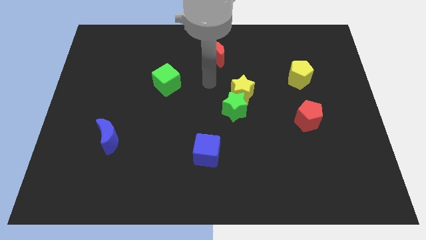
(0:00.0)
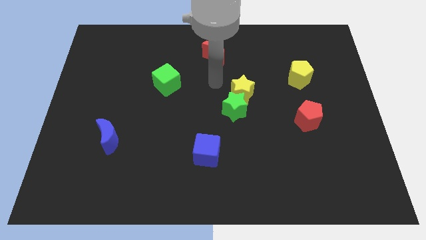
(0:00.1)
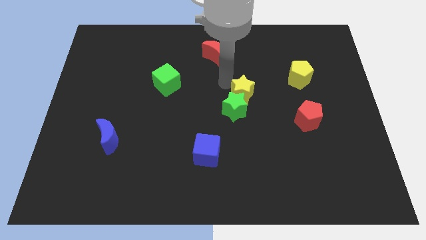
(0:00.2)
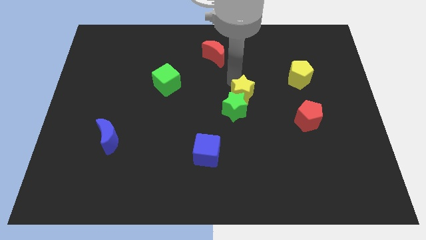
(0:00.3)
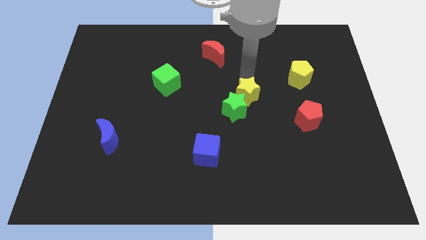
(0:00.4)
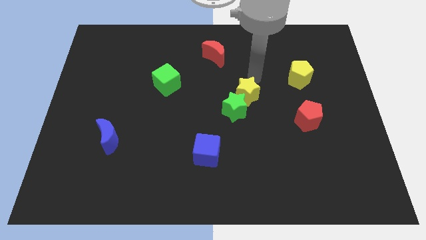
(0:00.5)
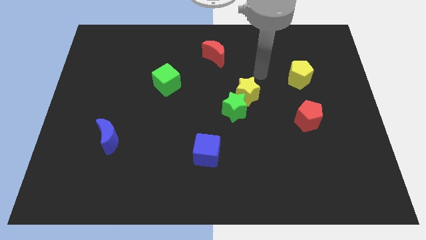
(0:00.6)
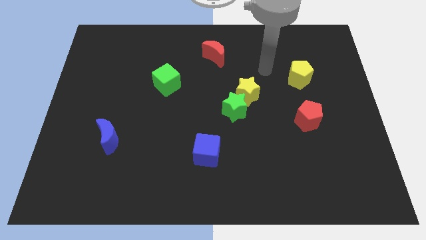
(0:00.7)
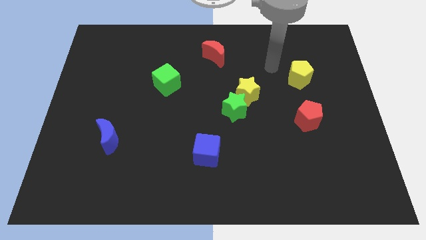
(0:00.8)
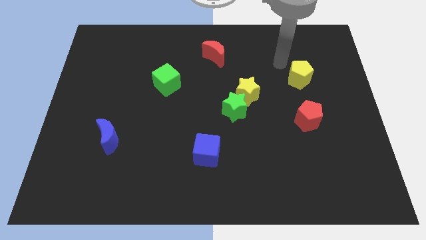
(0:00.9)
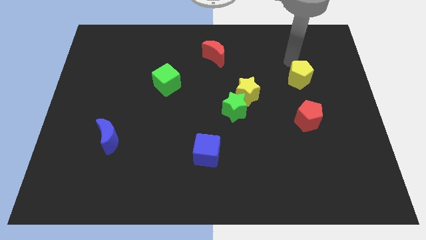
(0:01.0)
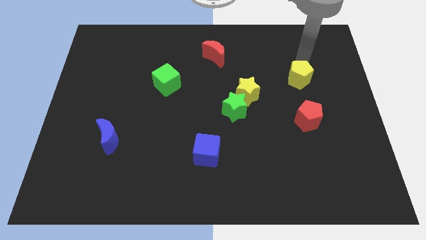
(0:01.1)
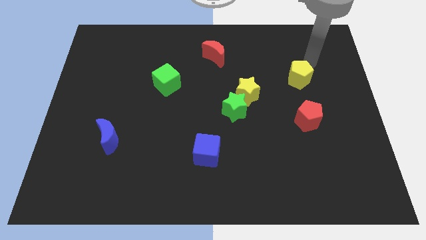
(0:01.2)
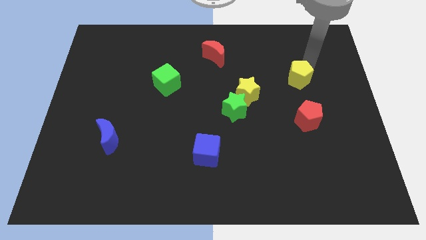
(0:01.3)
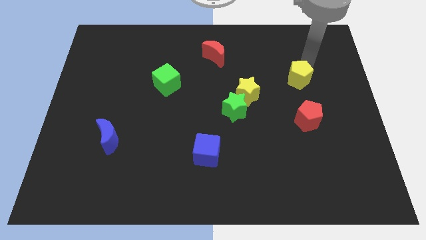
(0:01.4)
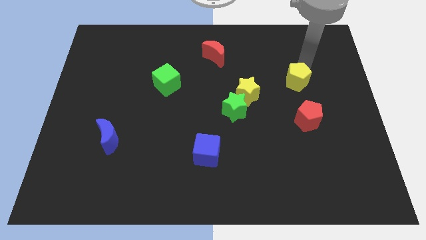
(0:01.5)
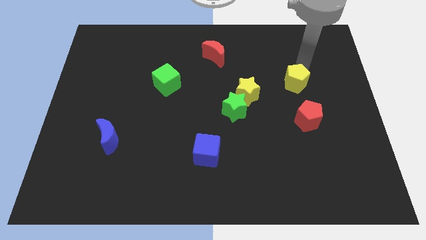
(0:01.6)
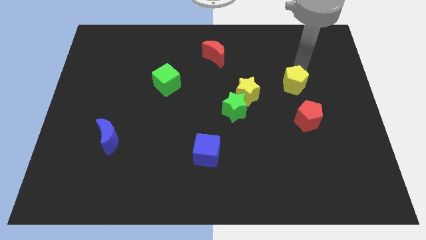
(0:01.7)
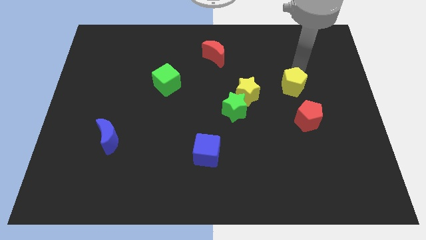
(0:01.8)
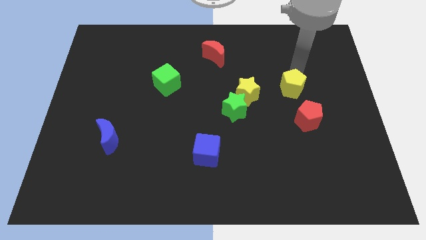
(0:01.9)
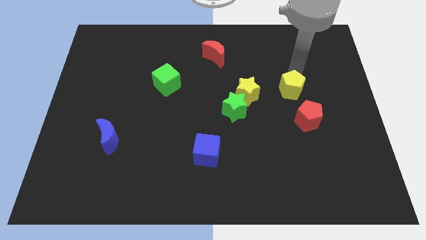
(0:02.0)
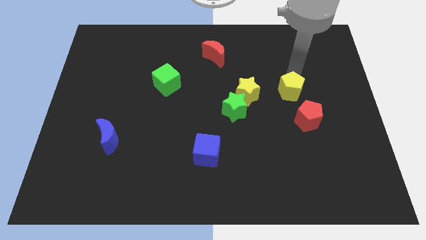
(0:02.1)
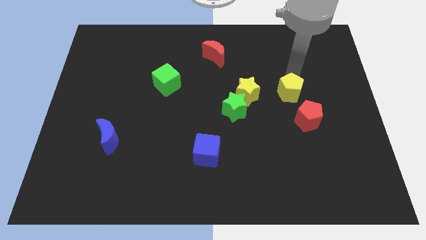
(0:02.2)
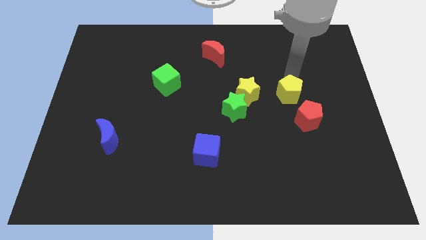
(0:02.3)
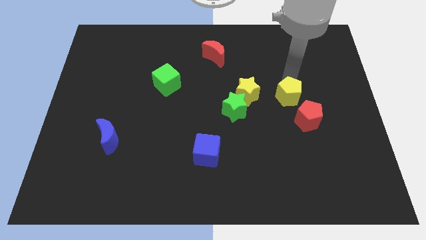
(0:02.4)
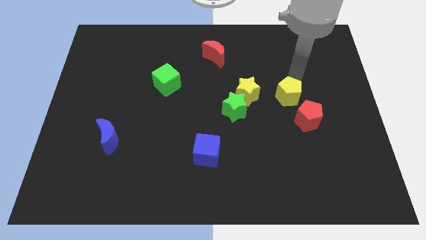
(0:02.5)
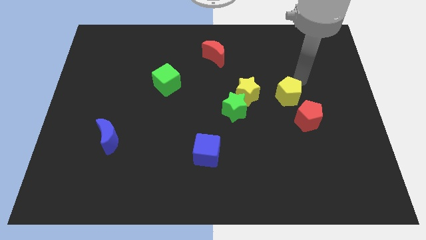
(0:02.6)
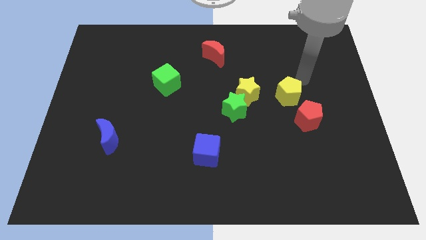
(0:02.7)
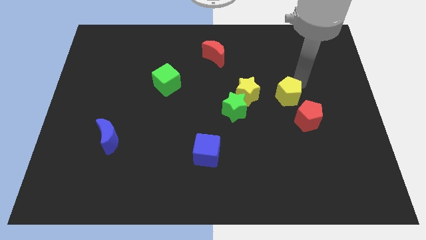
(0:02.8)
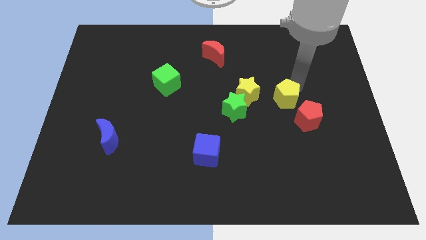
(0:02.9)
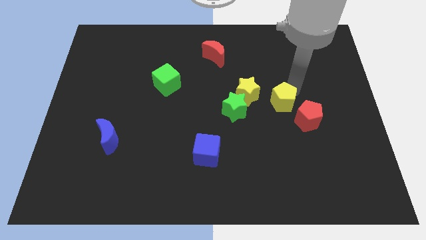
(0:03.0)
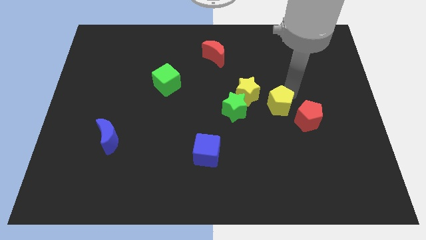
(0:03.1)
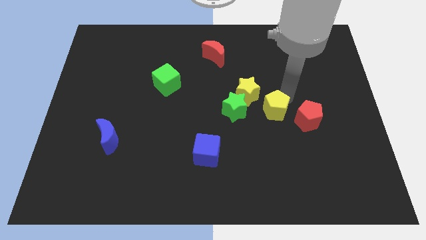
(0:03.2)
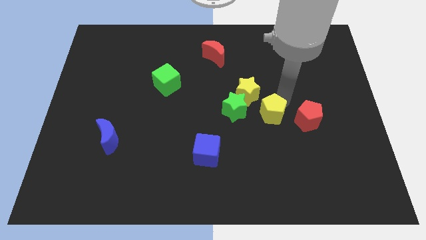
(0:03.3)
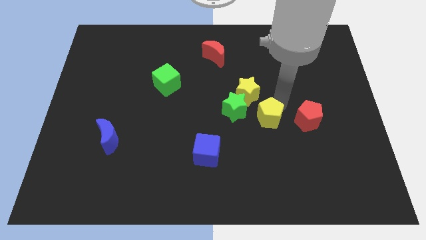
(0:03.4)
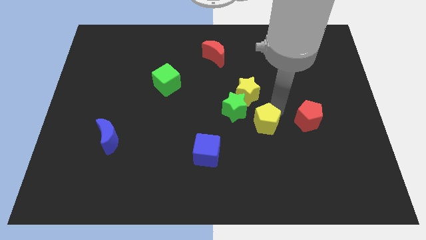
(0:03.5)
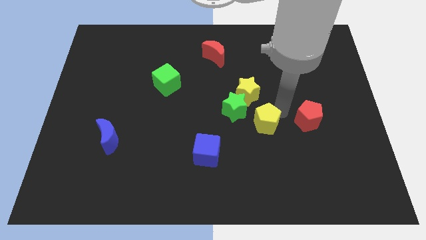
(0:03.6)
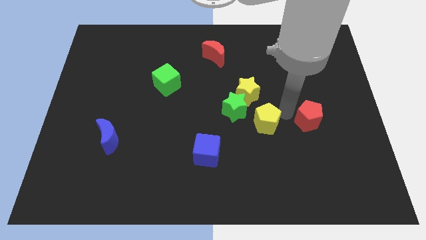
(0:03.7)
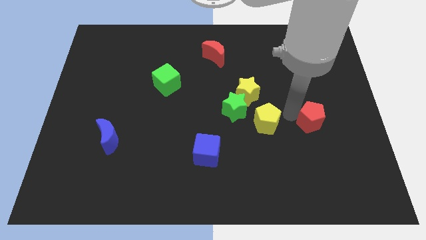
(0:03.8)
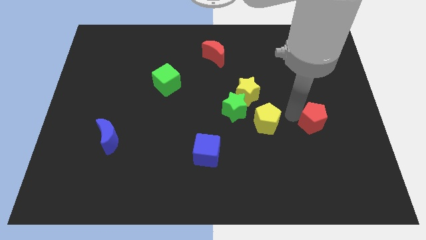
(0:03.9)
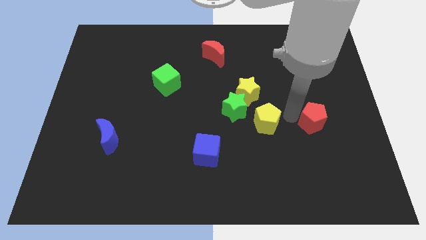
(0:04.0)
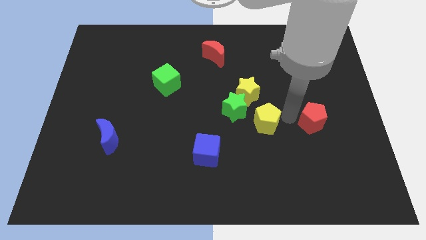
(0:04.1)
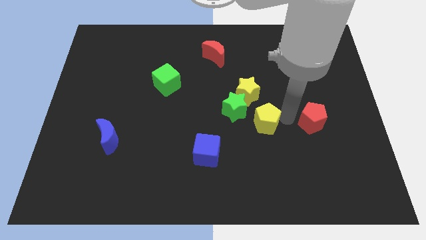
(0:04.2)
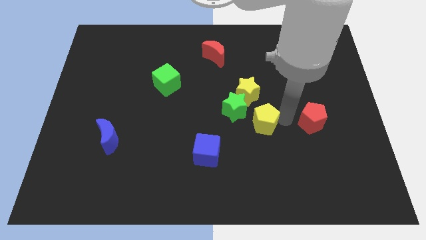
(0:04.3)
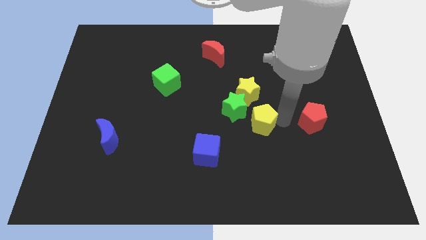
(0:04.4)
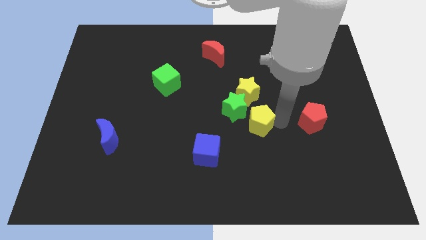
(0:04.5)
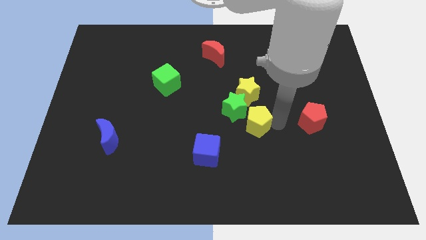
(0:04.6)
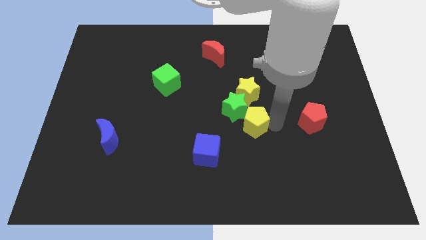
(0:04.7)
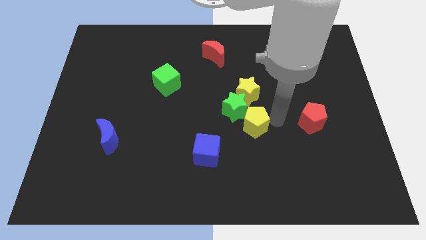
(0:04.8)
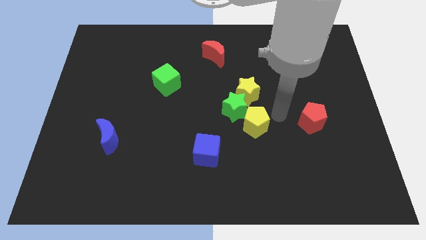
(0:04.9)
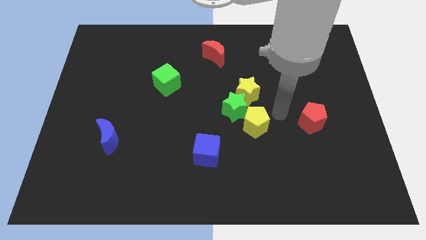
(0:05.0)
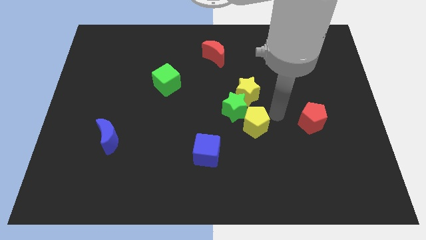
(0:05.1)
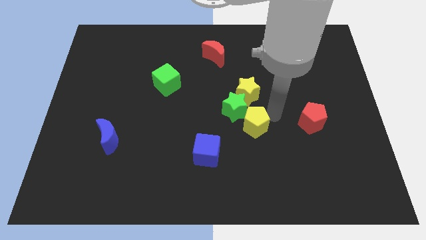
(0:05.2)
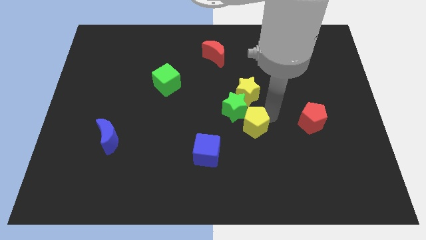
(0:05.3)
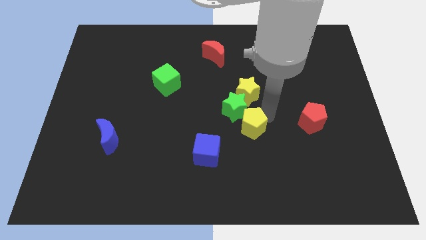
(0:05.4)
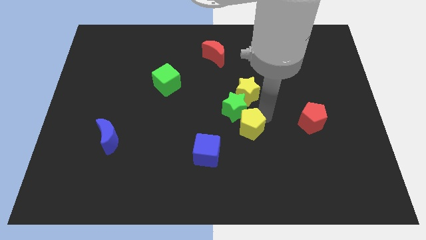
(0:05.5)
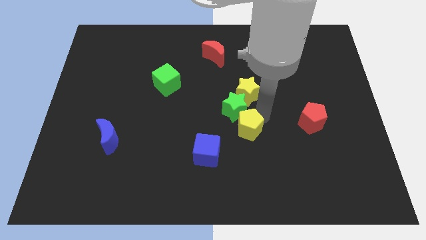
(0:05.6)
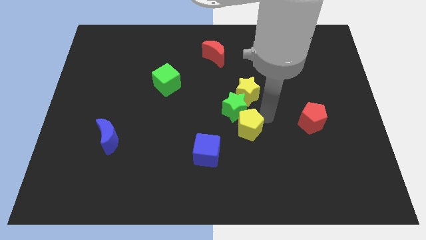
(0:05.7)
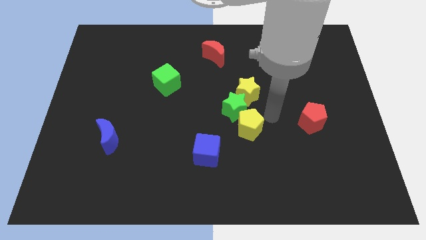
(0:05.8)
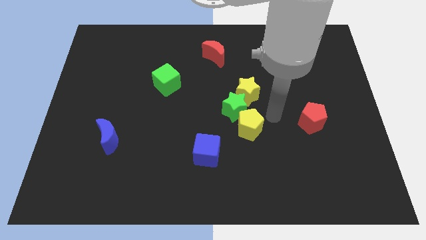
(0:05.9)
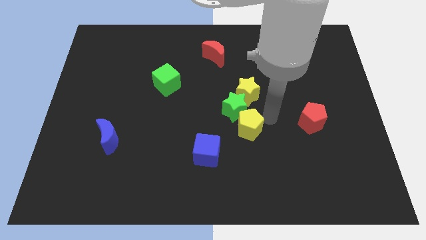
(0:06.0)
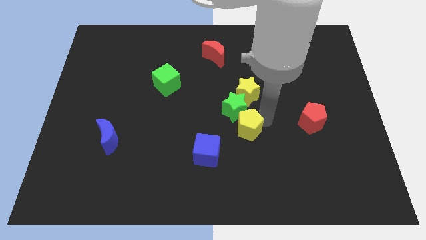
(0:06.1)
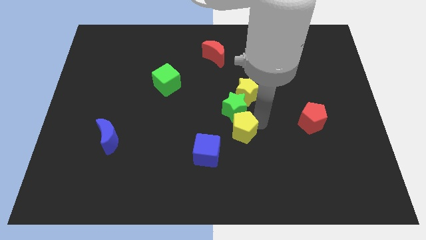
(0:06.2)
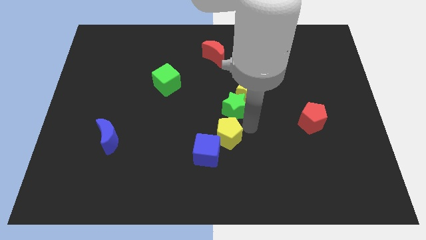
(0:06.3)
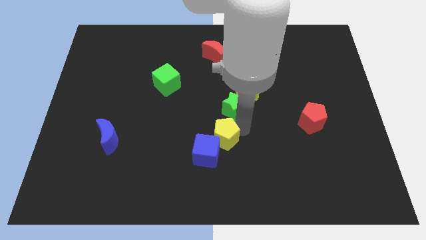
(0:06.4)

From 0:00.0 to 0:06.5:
slide the yellow pentagon towards the blue cube
